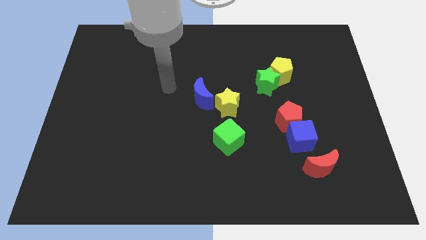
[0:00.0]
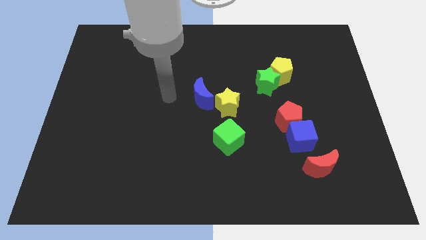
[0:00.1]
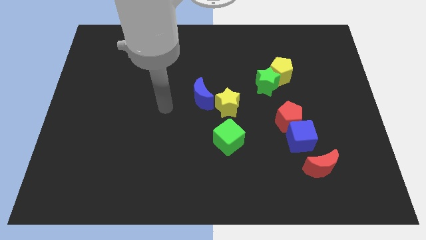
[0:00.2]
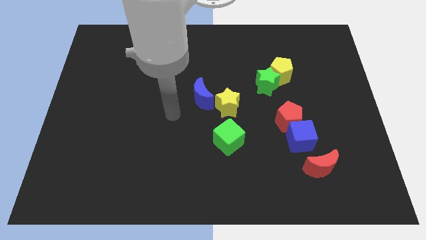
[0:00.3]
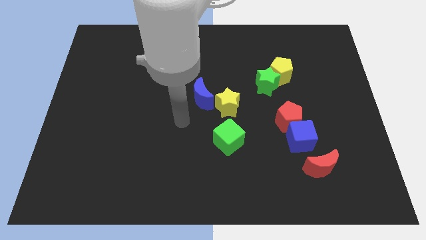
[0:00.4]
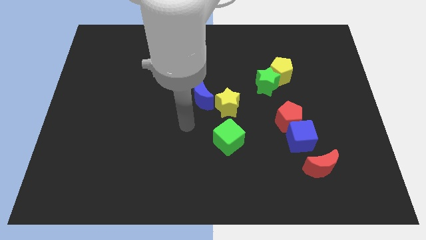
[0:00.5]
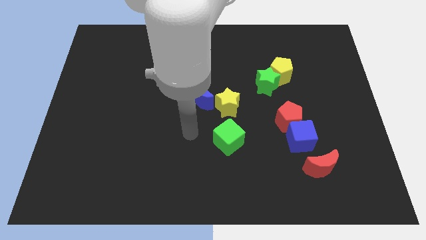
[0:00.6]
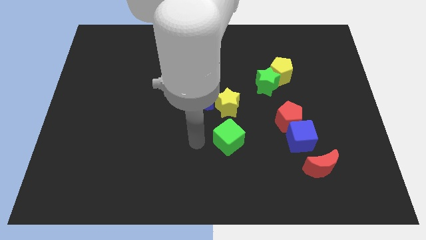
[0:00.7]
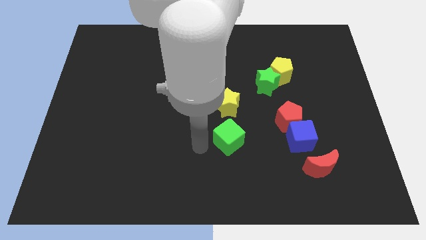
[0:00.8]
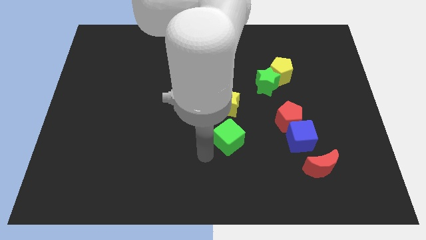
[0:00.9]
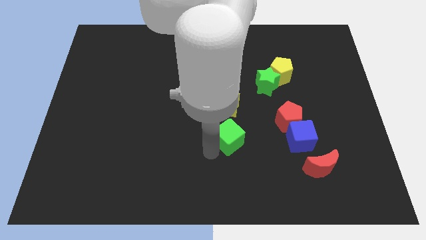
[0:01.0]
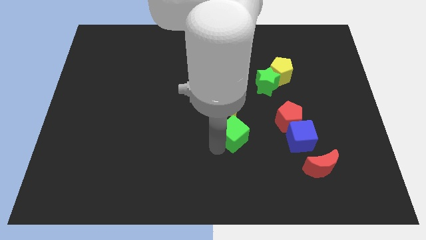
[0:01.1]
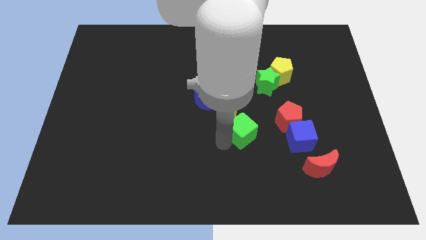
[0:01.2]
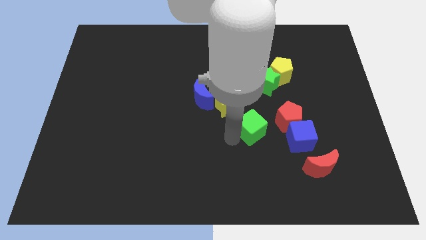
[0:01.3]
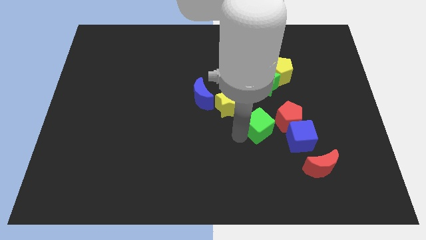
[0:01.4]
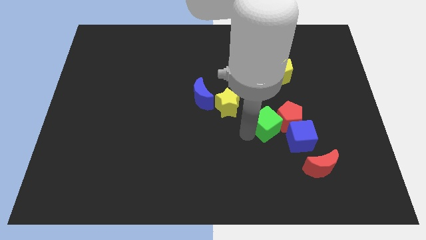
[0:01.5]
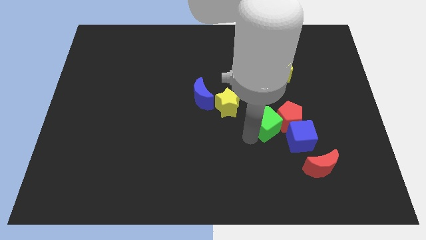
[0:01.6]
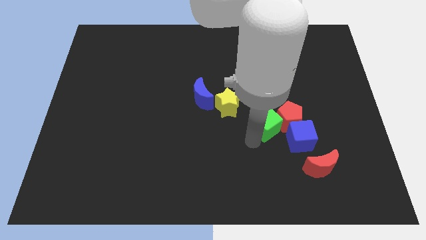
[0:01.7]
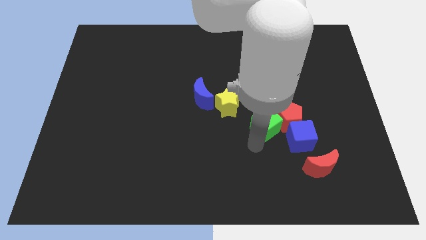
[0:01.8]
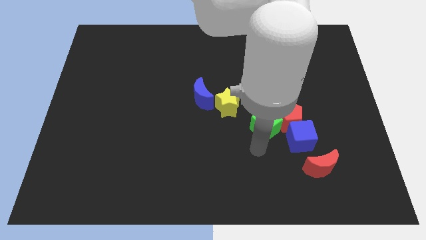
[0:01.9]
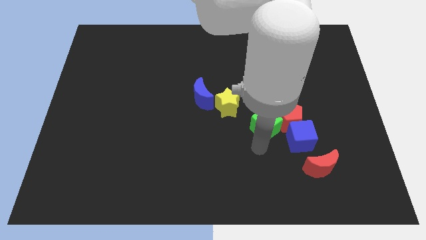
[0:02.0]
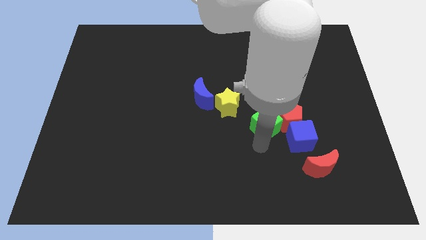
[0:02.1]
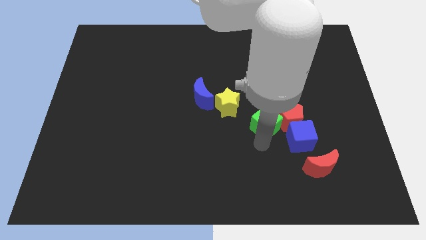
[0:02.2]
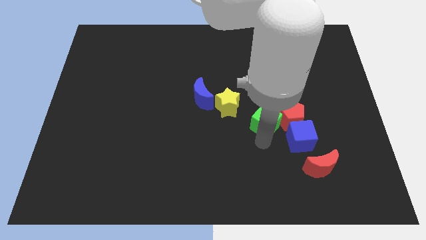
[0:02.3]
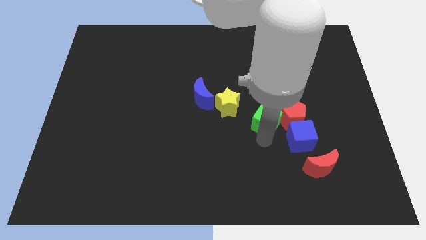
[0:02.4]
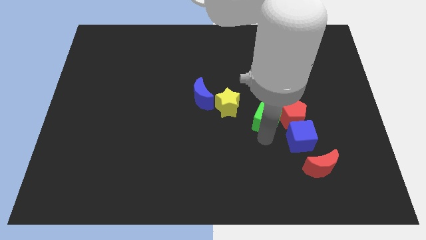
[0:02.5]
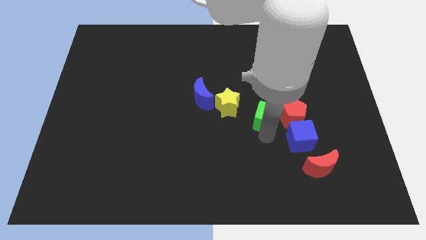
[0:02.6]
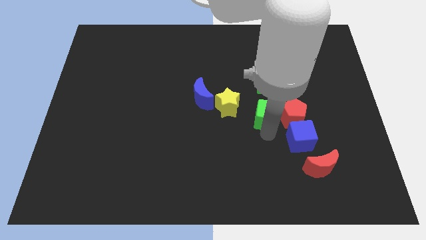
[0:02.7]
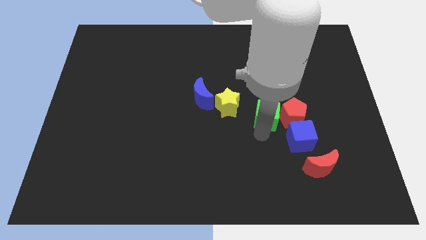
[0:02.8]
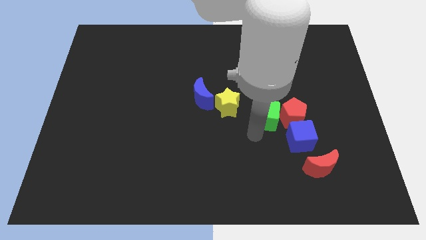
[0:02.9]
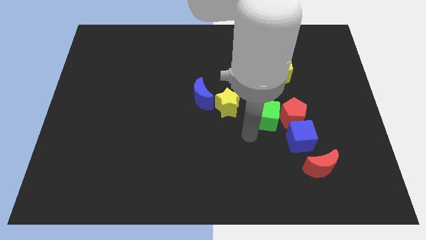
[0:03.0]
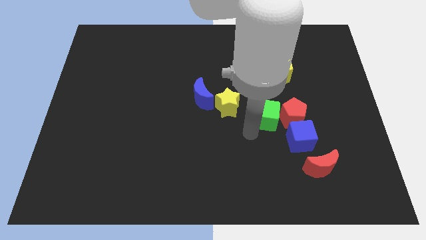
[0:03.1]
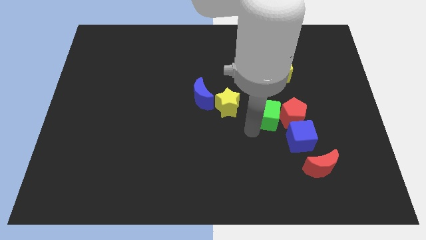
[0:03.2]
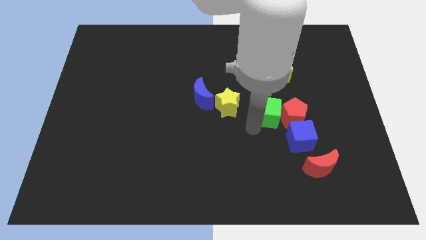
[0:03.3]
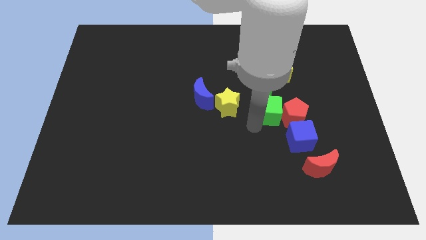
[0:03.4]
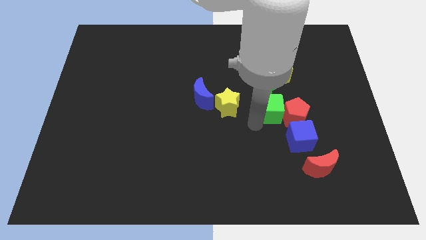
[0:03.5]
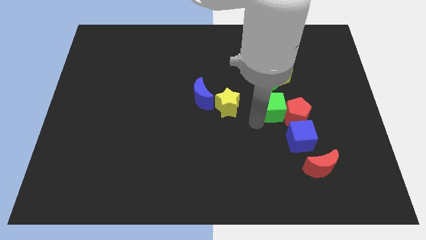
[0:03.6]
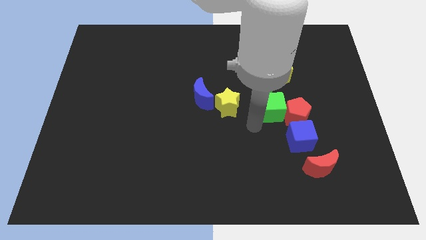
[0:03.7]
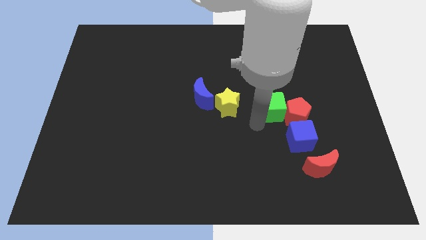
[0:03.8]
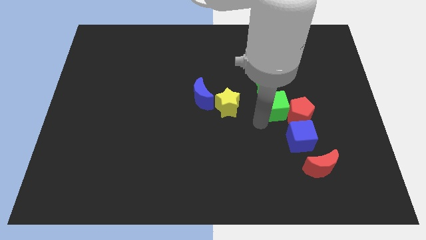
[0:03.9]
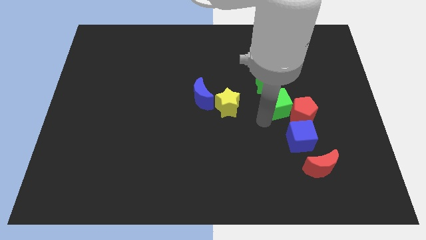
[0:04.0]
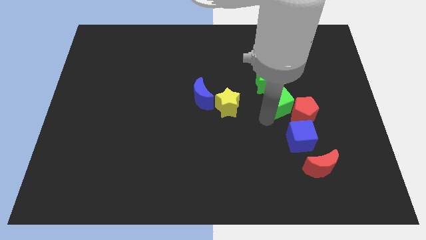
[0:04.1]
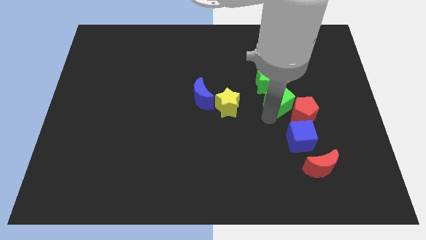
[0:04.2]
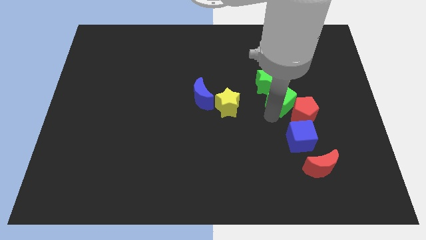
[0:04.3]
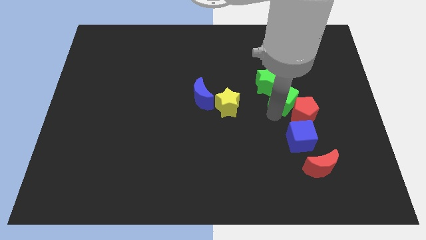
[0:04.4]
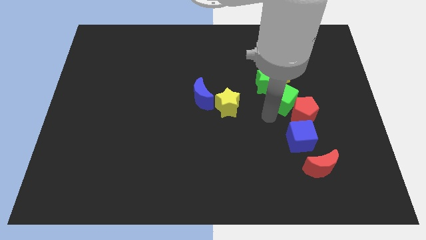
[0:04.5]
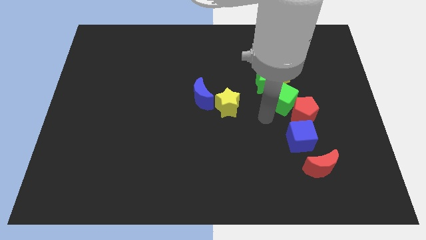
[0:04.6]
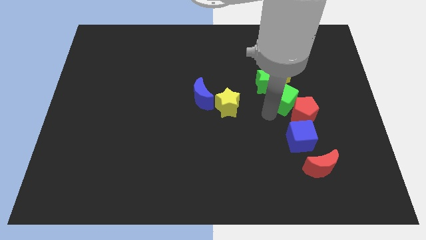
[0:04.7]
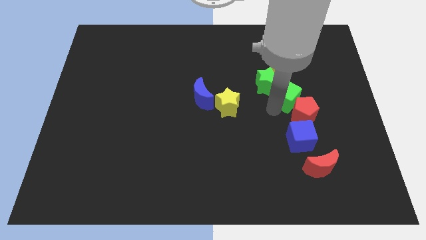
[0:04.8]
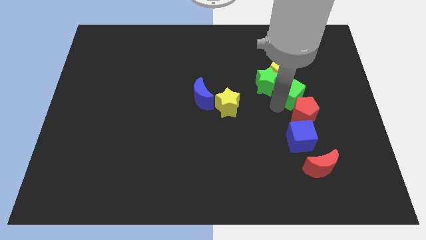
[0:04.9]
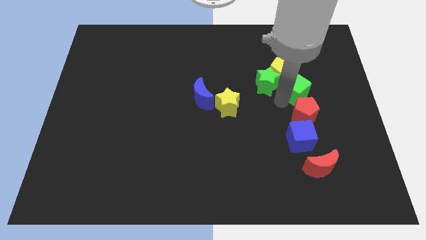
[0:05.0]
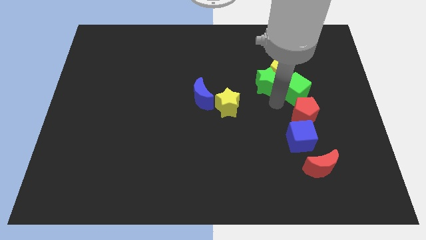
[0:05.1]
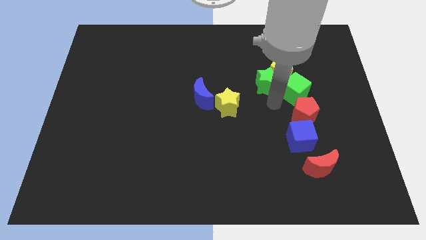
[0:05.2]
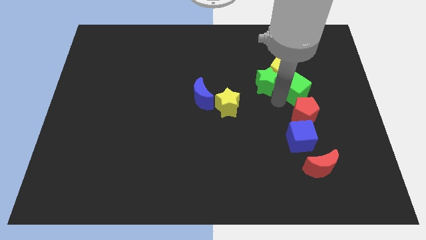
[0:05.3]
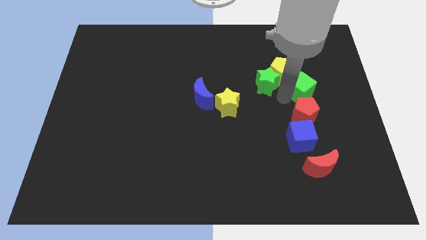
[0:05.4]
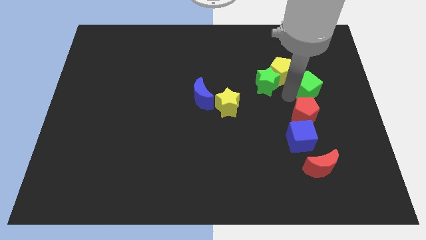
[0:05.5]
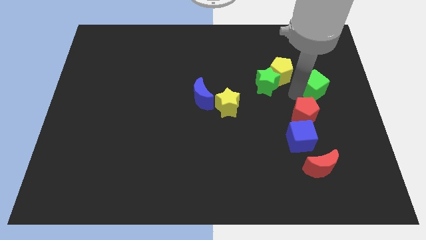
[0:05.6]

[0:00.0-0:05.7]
put the green cube just right of the yellow pentagon

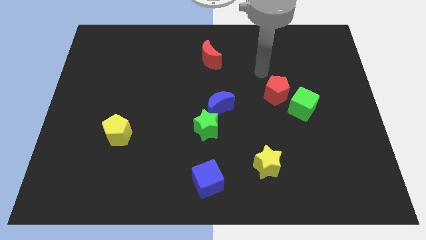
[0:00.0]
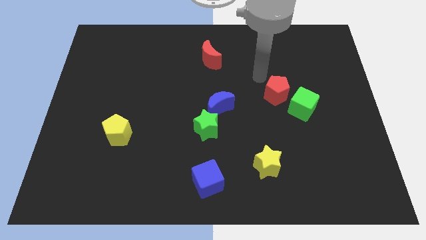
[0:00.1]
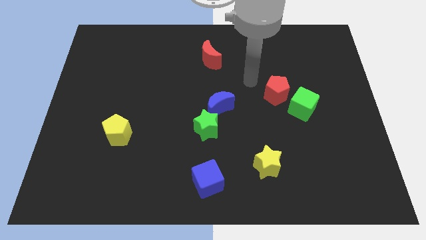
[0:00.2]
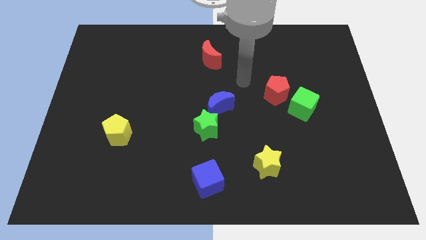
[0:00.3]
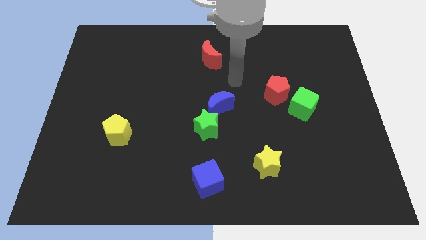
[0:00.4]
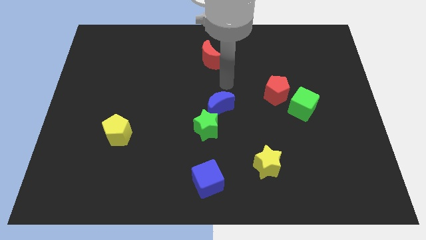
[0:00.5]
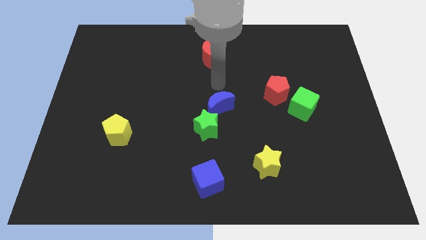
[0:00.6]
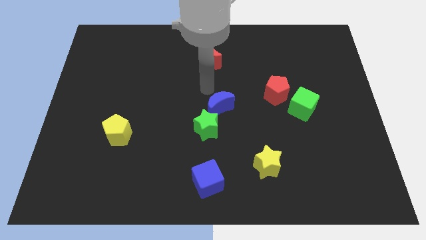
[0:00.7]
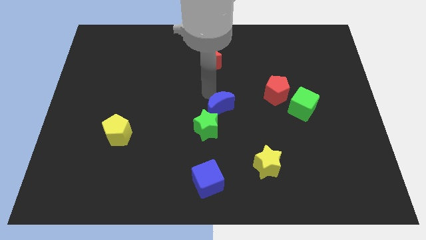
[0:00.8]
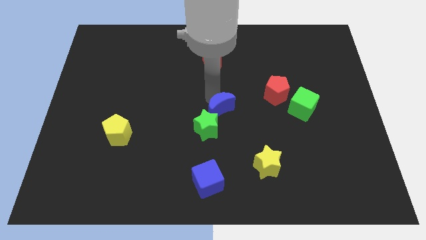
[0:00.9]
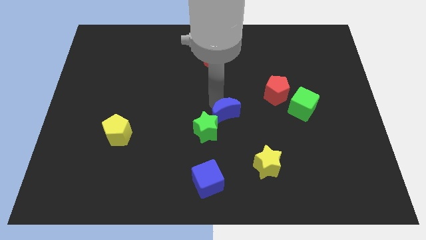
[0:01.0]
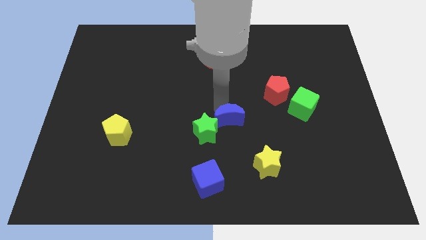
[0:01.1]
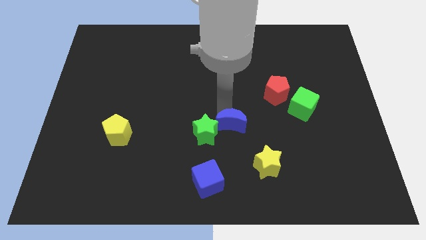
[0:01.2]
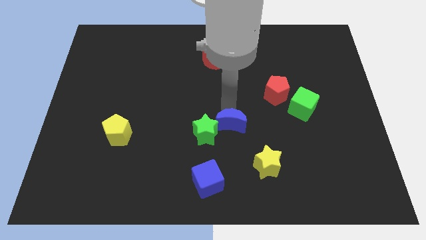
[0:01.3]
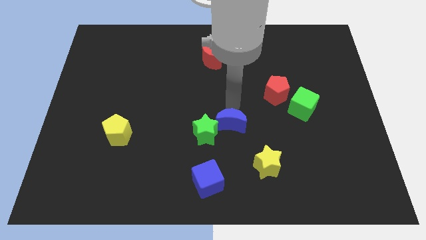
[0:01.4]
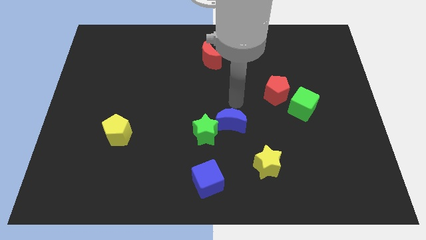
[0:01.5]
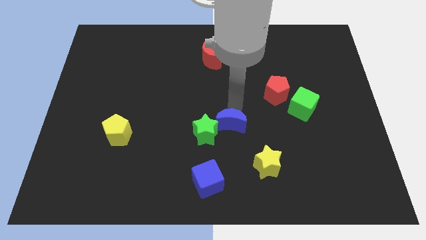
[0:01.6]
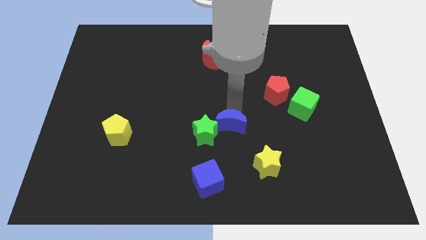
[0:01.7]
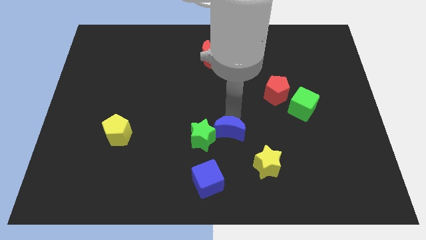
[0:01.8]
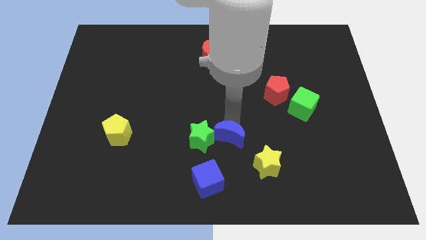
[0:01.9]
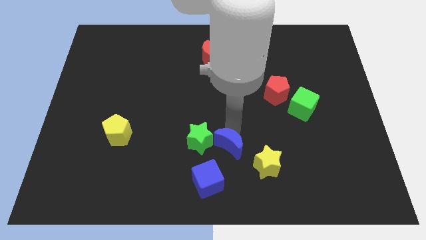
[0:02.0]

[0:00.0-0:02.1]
push the blue moon just left of the yellow star
